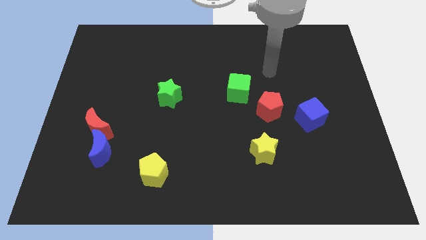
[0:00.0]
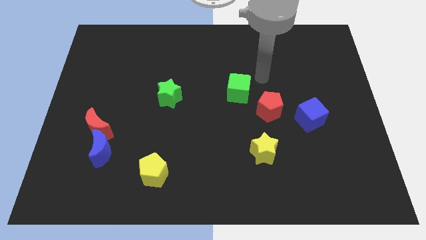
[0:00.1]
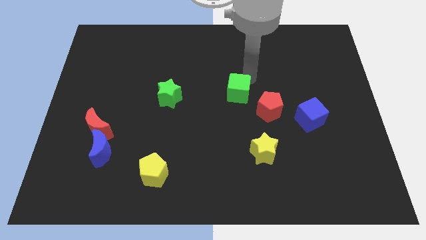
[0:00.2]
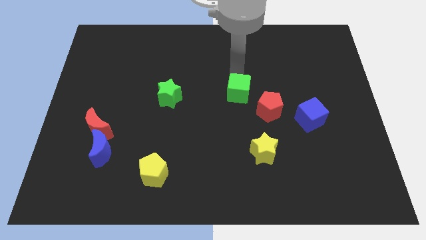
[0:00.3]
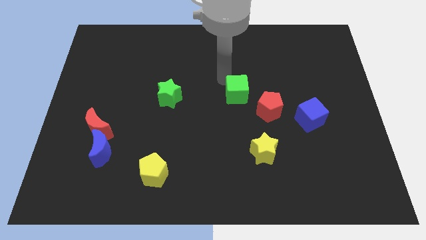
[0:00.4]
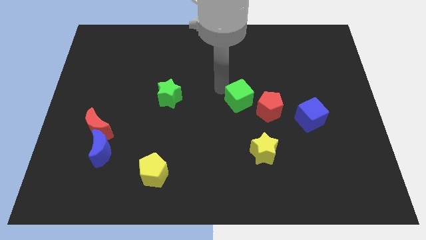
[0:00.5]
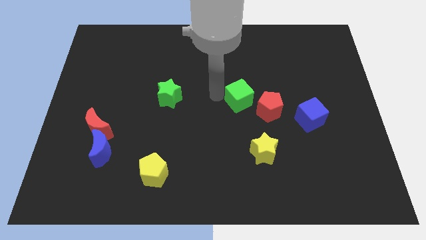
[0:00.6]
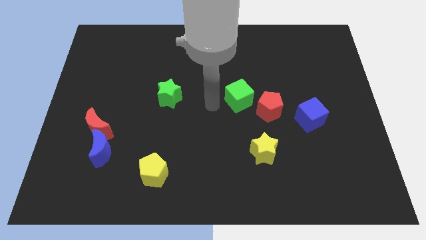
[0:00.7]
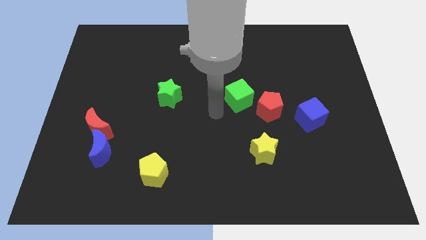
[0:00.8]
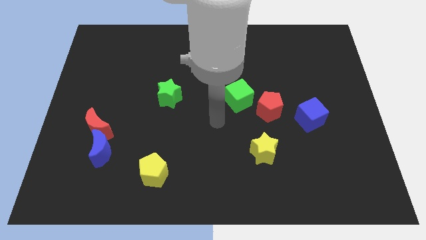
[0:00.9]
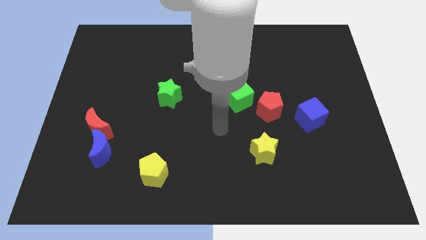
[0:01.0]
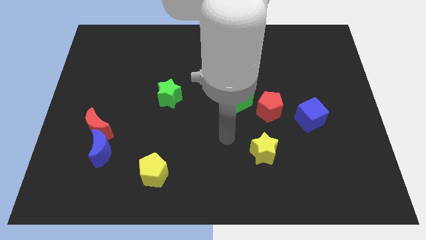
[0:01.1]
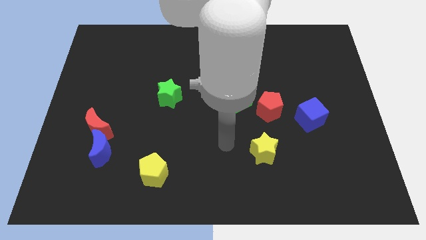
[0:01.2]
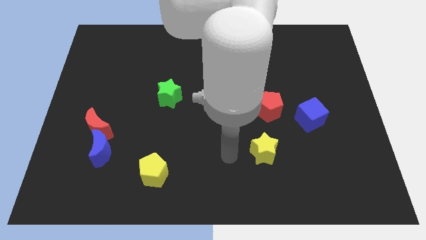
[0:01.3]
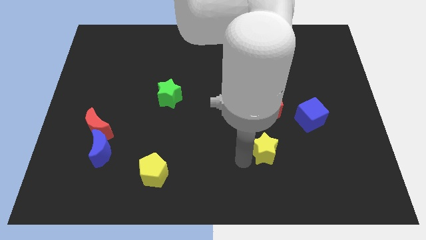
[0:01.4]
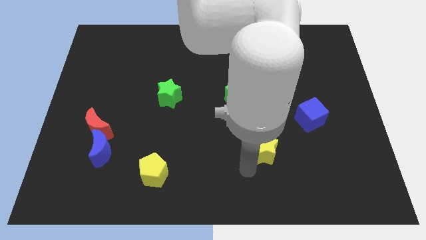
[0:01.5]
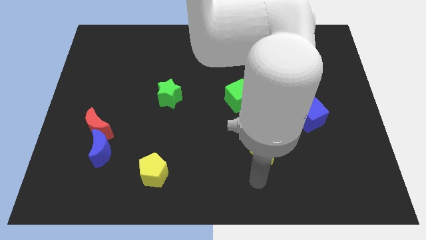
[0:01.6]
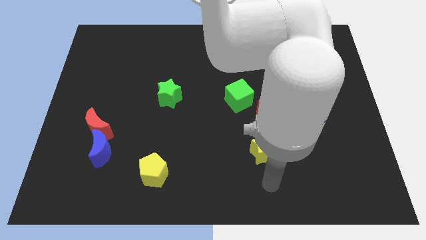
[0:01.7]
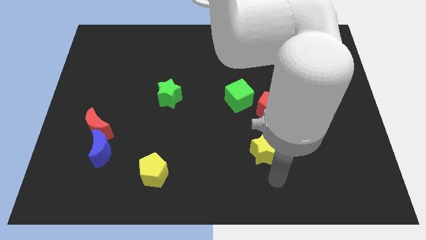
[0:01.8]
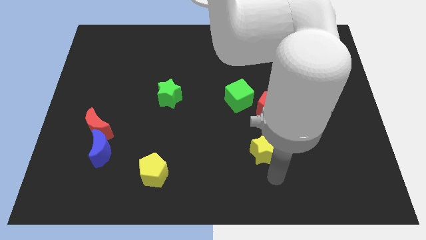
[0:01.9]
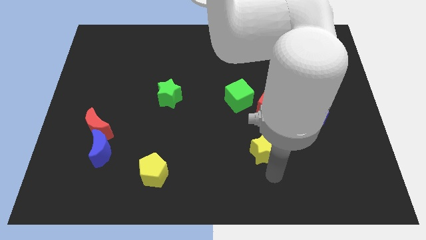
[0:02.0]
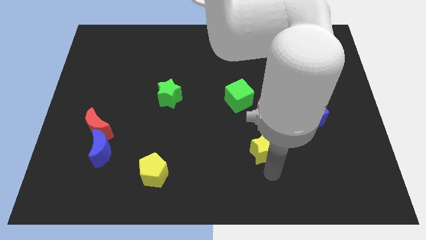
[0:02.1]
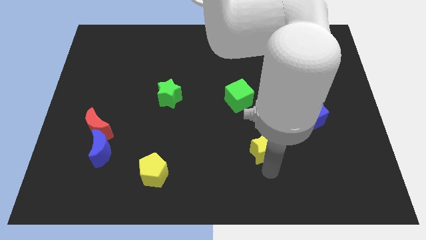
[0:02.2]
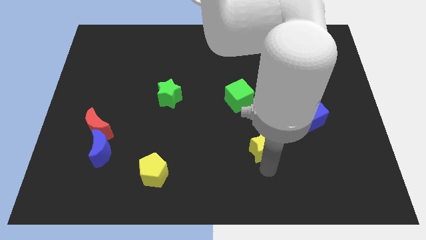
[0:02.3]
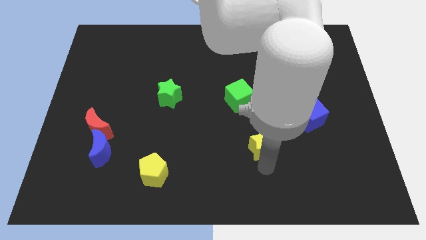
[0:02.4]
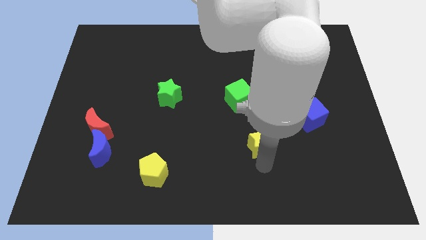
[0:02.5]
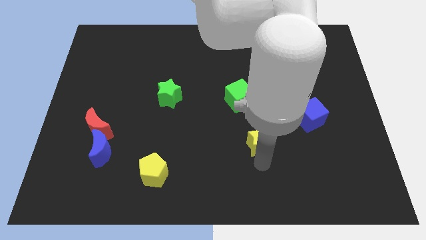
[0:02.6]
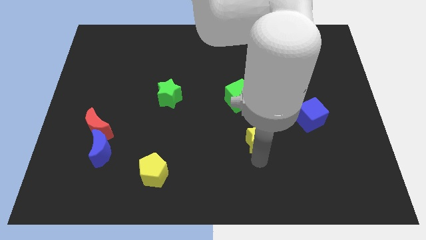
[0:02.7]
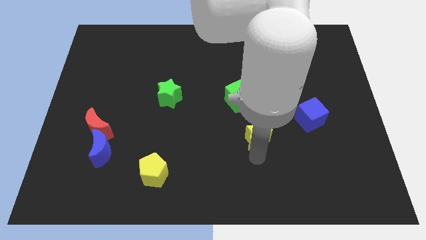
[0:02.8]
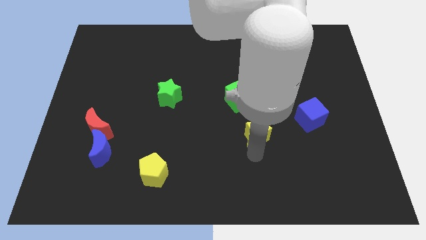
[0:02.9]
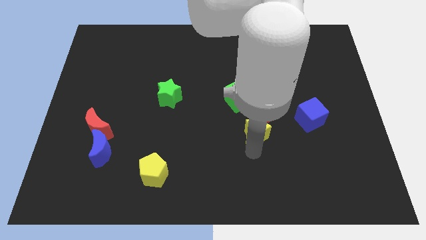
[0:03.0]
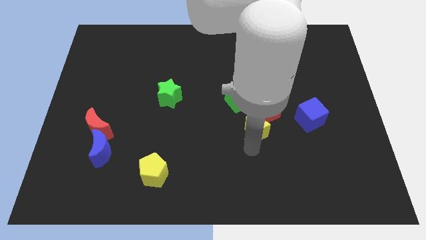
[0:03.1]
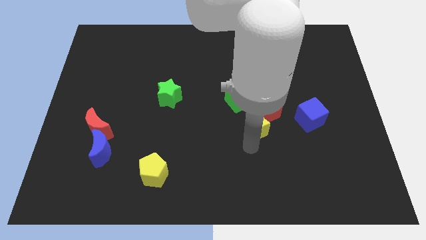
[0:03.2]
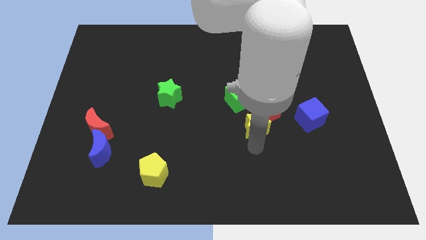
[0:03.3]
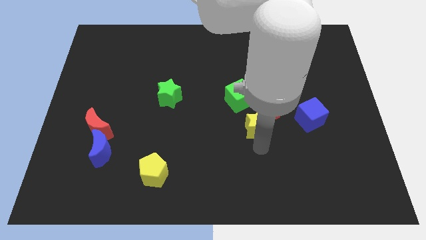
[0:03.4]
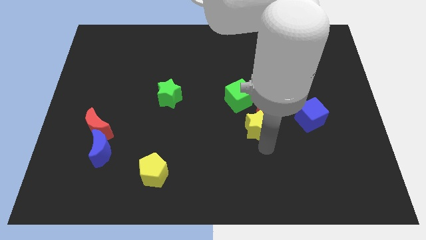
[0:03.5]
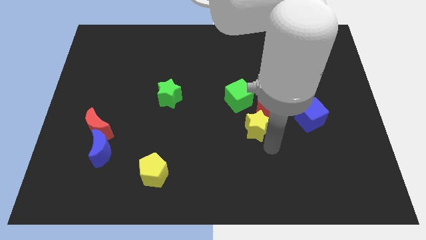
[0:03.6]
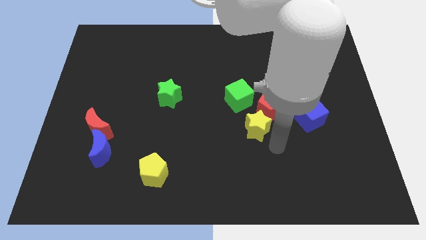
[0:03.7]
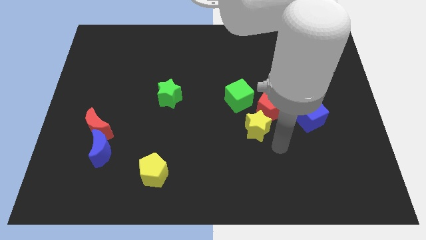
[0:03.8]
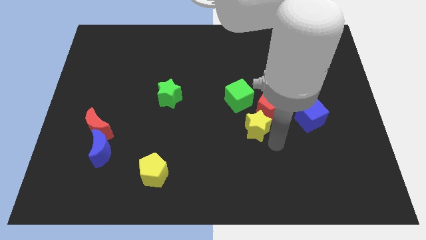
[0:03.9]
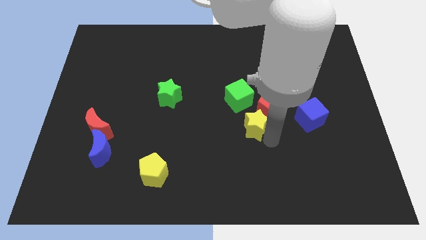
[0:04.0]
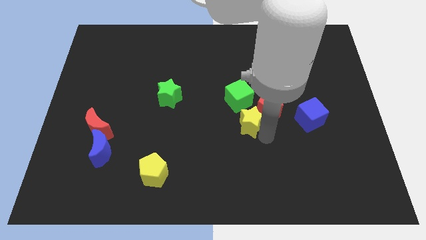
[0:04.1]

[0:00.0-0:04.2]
move the yellow star a little up

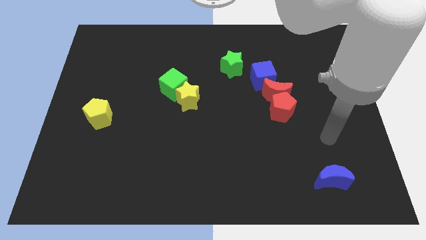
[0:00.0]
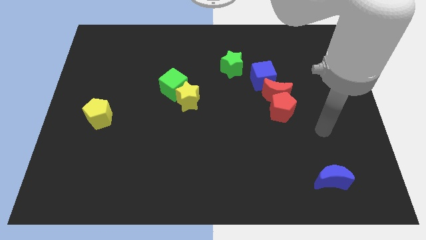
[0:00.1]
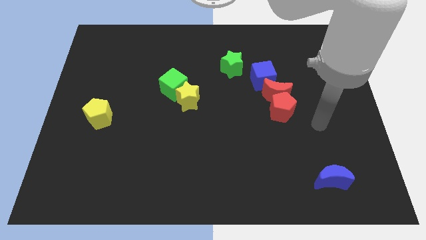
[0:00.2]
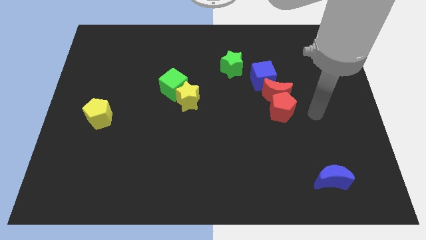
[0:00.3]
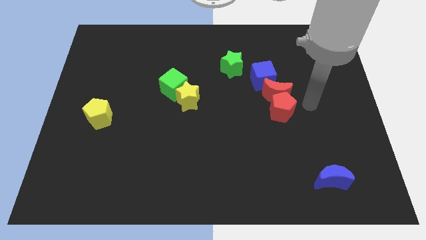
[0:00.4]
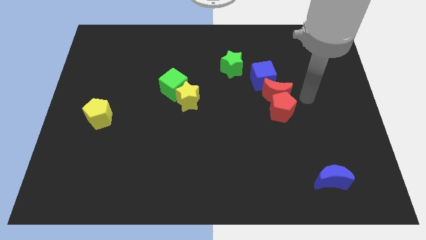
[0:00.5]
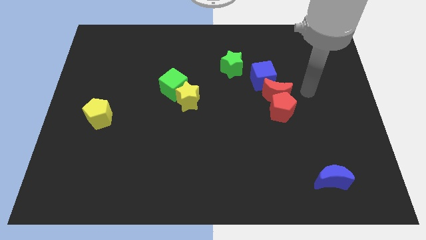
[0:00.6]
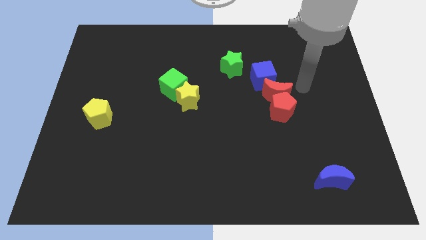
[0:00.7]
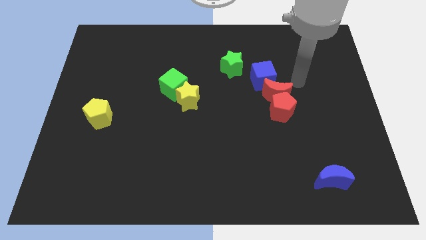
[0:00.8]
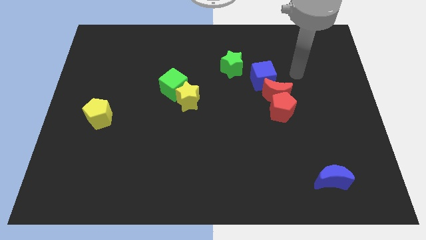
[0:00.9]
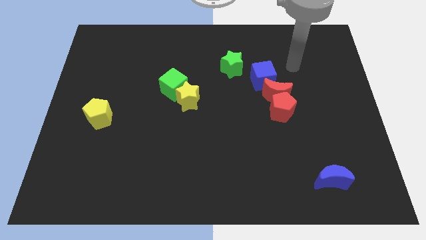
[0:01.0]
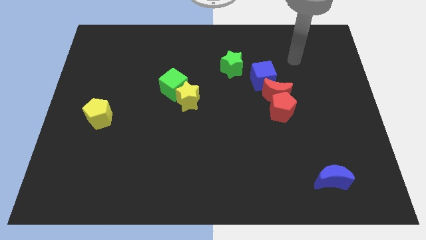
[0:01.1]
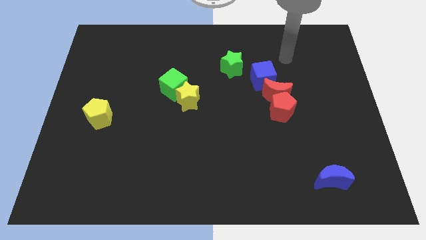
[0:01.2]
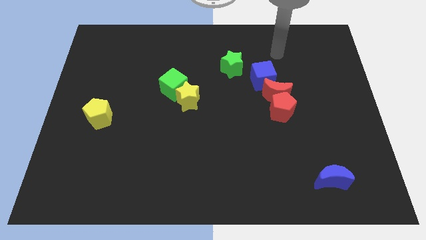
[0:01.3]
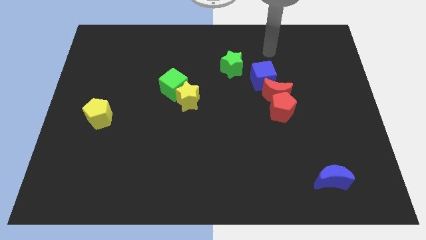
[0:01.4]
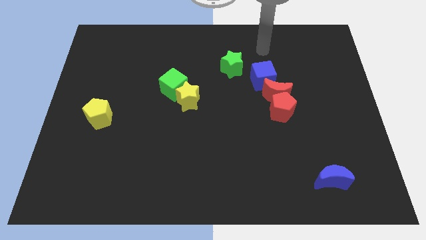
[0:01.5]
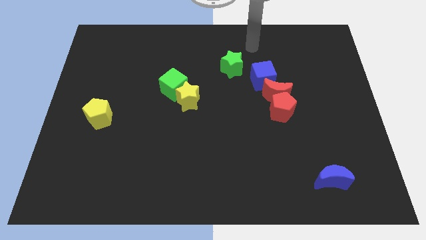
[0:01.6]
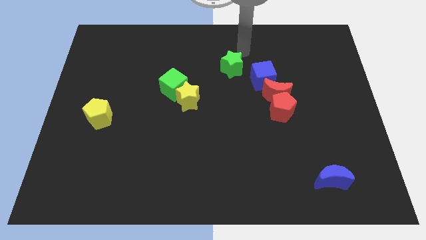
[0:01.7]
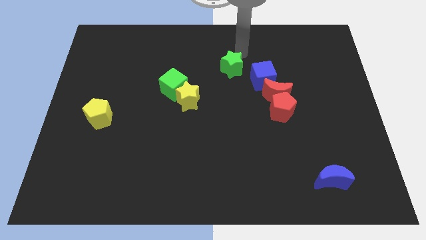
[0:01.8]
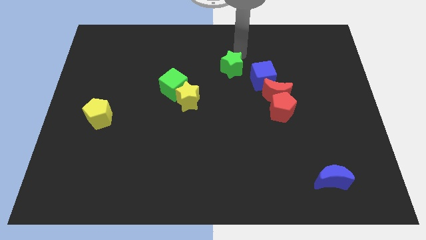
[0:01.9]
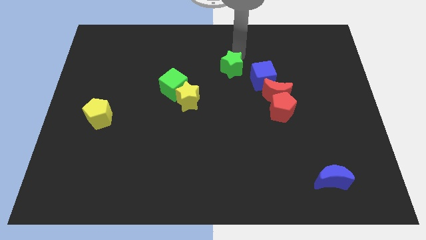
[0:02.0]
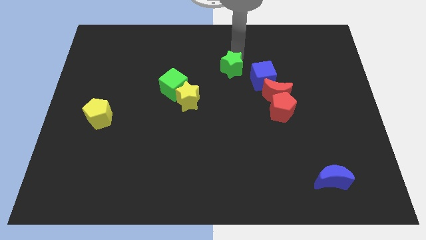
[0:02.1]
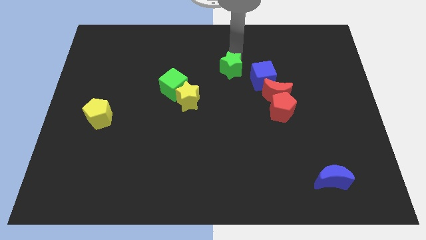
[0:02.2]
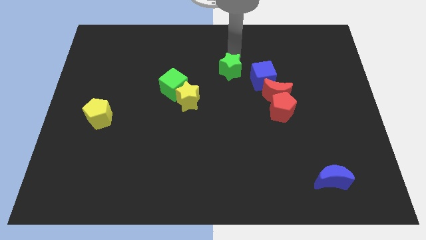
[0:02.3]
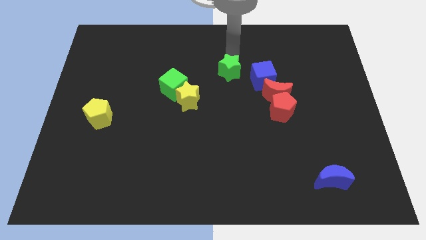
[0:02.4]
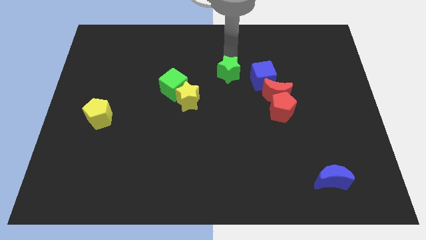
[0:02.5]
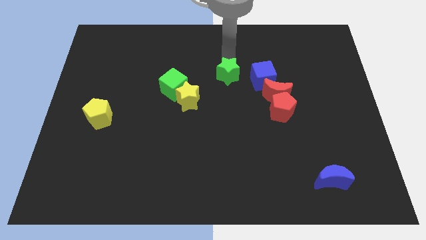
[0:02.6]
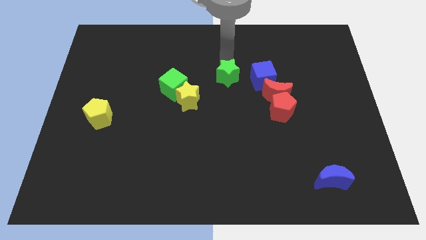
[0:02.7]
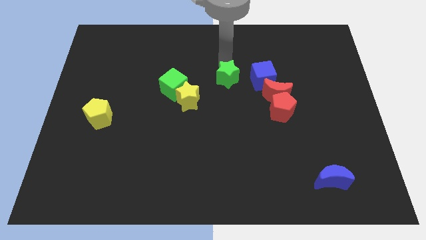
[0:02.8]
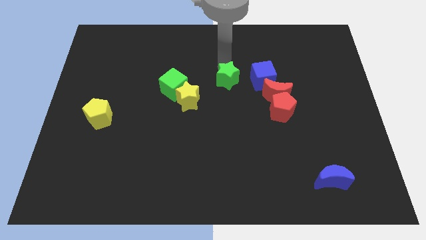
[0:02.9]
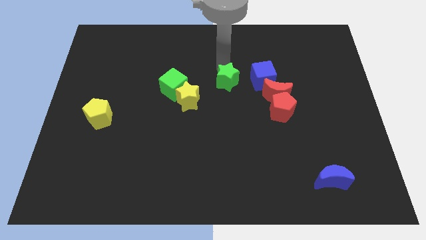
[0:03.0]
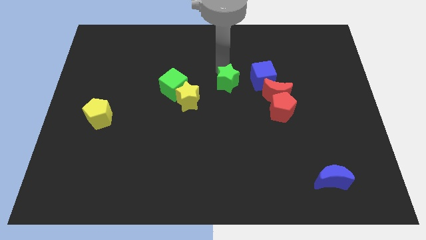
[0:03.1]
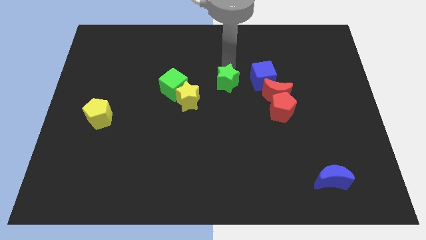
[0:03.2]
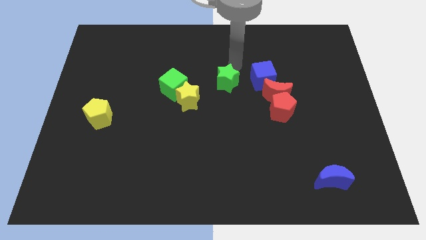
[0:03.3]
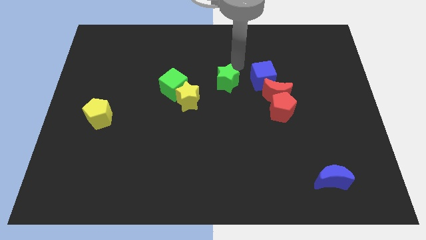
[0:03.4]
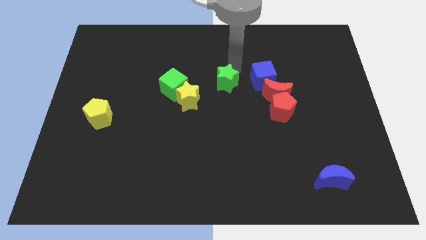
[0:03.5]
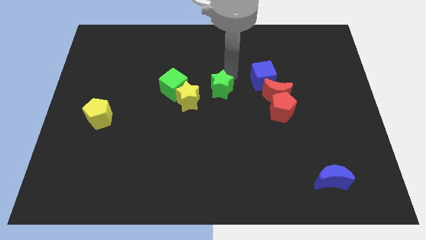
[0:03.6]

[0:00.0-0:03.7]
slide the green star down and then to the left a bit

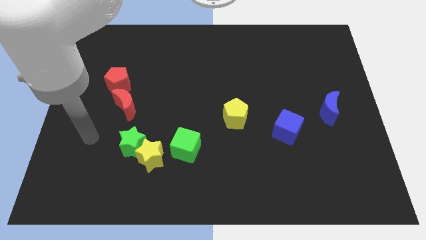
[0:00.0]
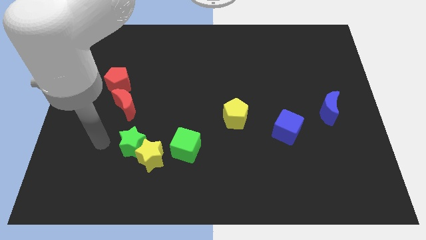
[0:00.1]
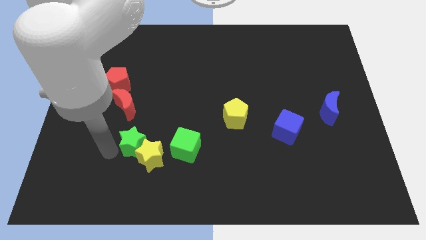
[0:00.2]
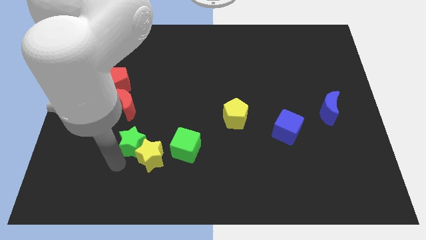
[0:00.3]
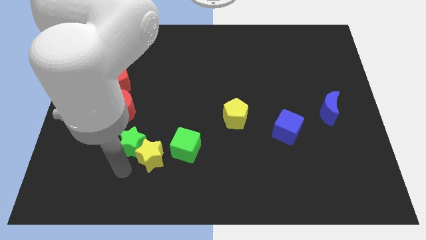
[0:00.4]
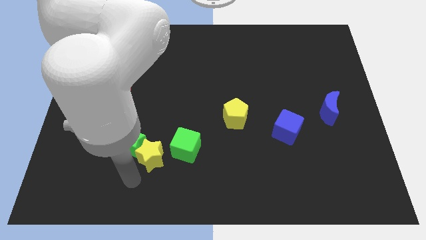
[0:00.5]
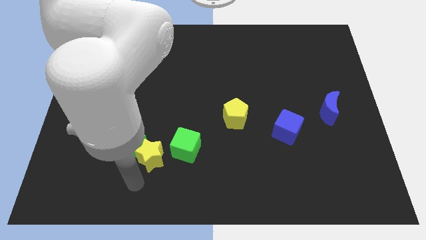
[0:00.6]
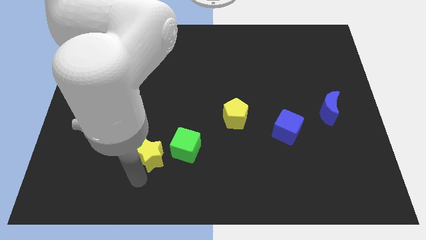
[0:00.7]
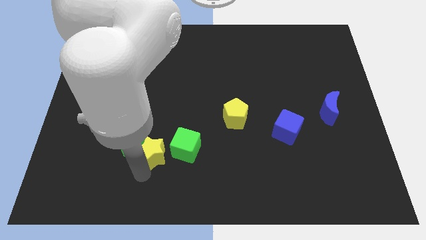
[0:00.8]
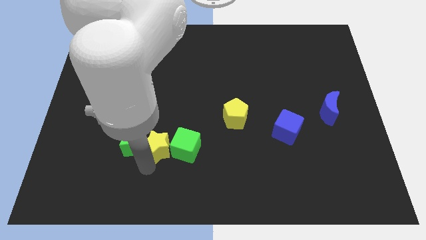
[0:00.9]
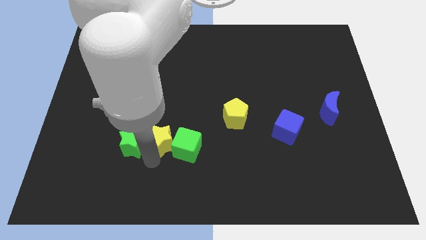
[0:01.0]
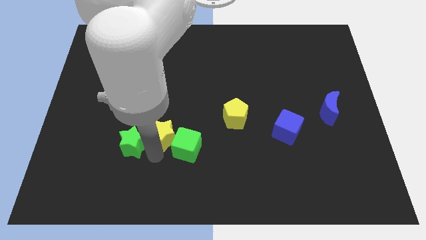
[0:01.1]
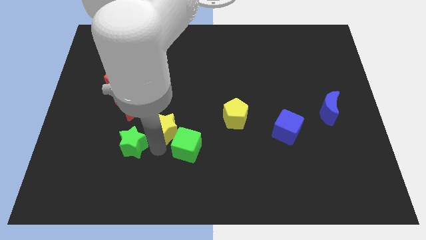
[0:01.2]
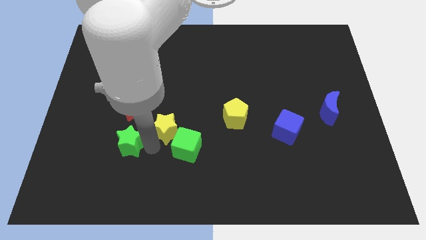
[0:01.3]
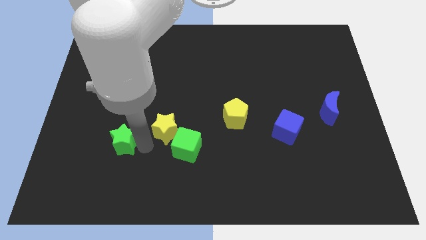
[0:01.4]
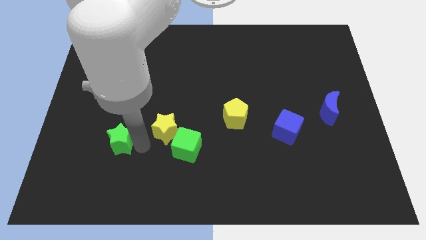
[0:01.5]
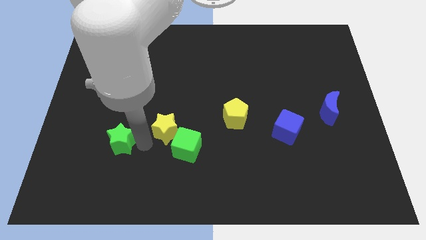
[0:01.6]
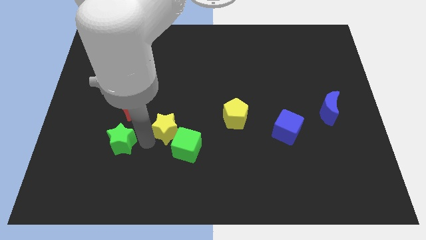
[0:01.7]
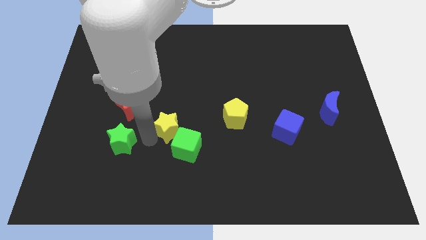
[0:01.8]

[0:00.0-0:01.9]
slightly slide the yellow star upwards and then to the right
